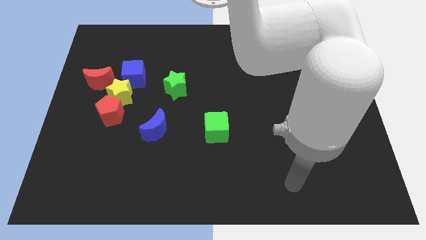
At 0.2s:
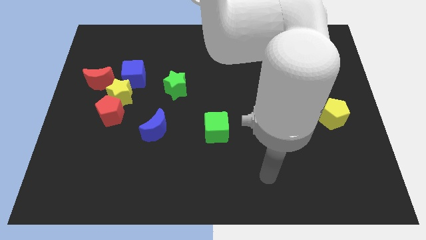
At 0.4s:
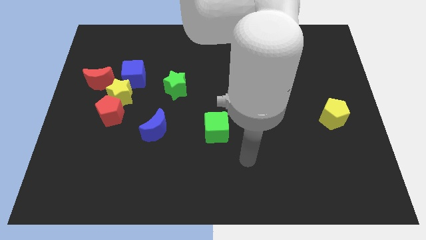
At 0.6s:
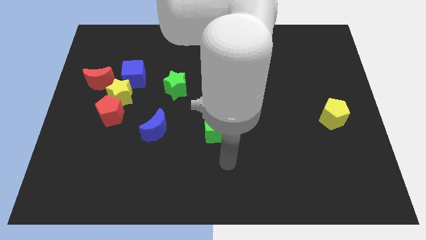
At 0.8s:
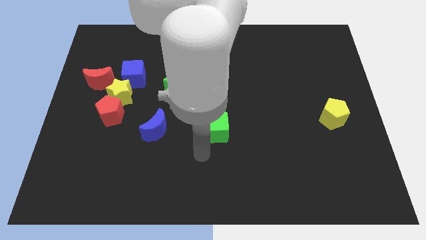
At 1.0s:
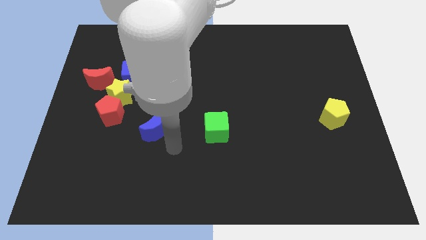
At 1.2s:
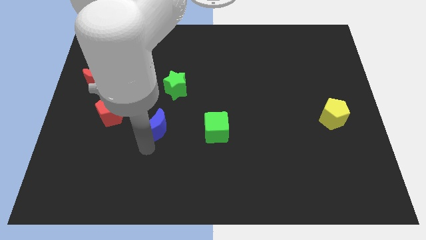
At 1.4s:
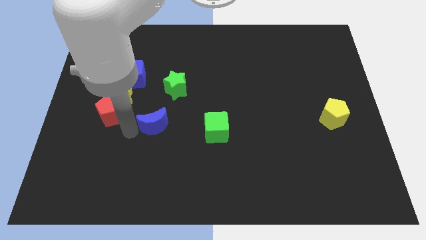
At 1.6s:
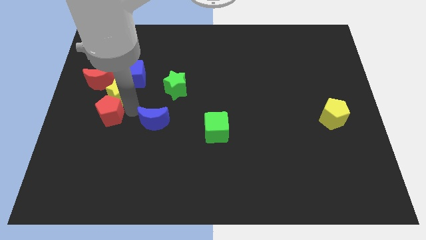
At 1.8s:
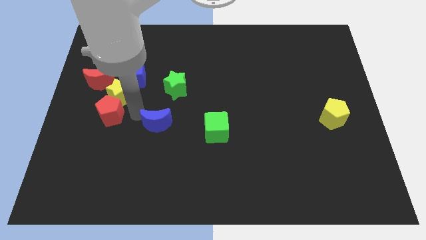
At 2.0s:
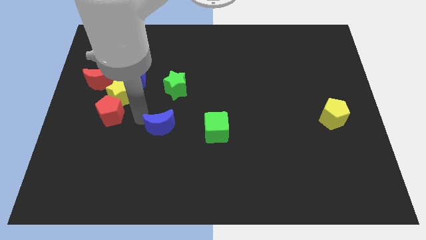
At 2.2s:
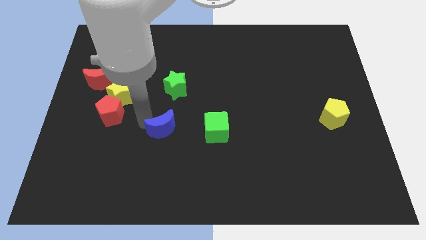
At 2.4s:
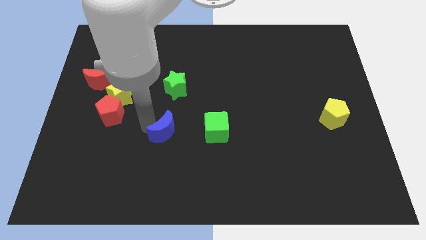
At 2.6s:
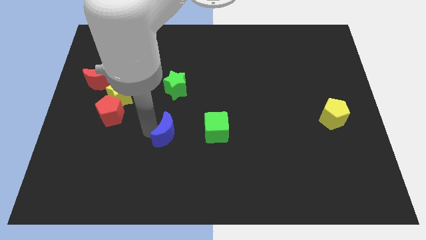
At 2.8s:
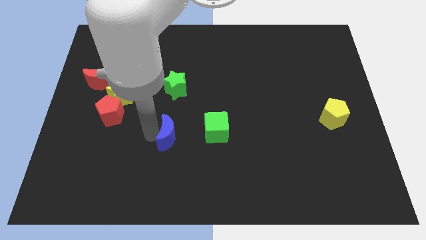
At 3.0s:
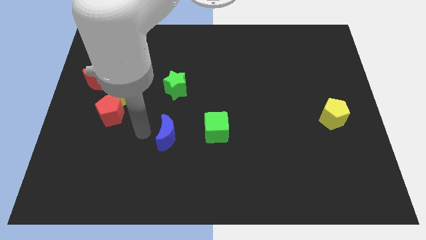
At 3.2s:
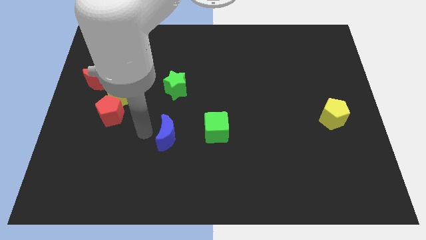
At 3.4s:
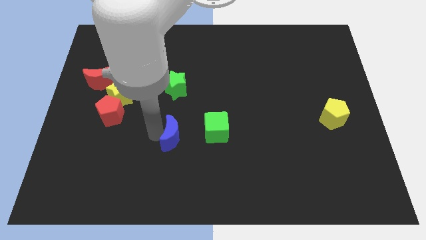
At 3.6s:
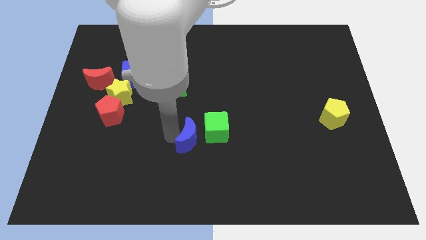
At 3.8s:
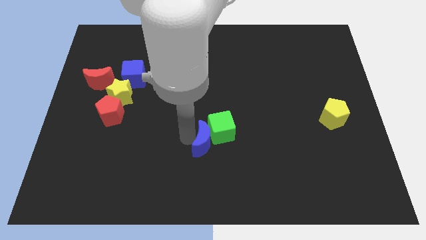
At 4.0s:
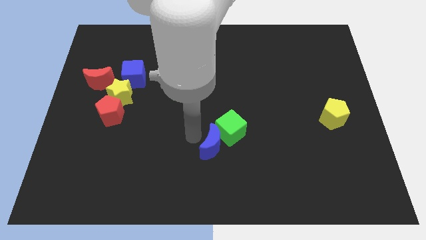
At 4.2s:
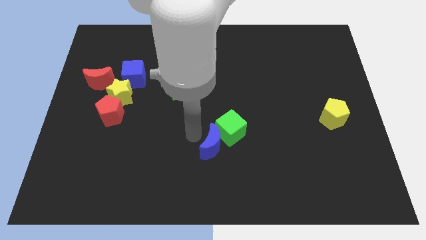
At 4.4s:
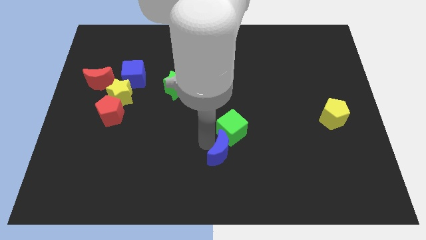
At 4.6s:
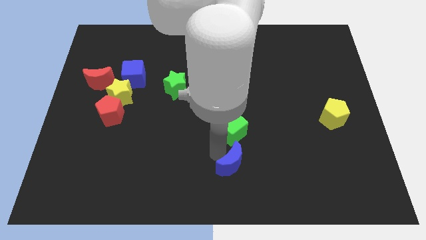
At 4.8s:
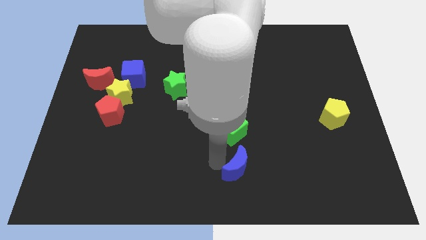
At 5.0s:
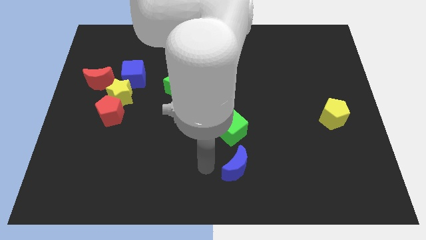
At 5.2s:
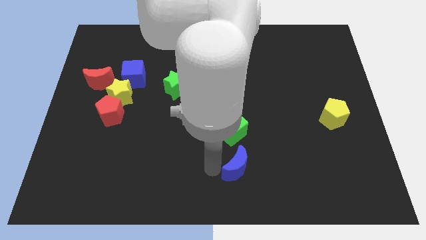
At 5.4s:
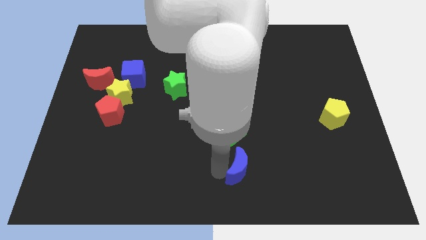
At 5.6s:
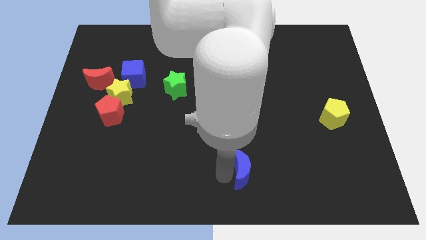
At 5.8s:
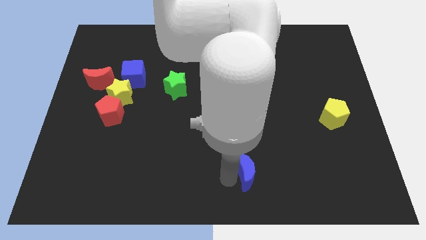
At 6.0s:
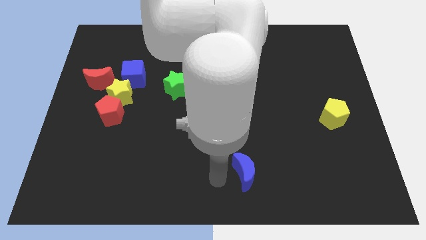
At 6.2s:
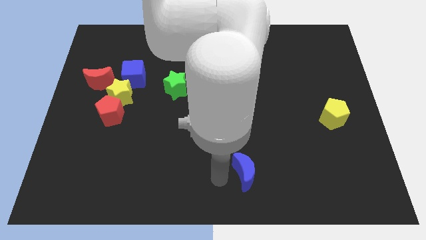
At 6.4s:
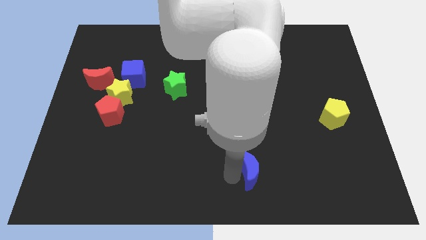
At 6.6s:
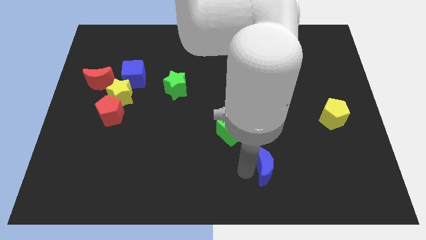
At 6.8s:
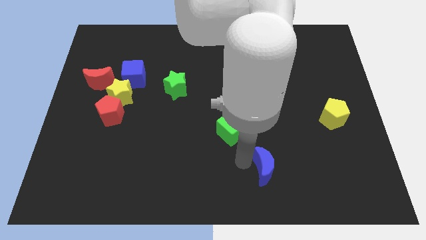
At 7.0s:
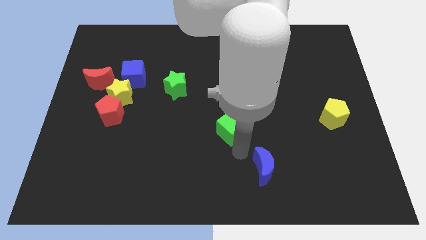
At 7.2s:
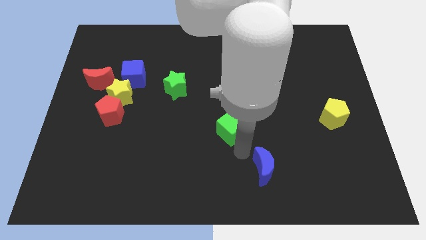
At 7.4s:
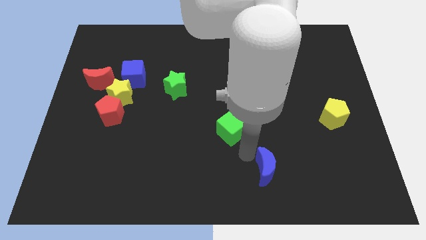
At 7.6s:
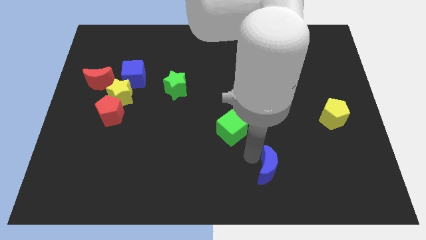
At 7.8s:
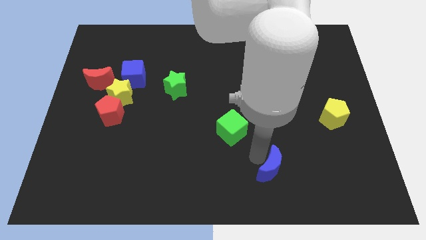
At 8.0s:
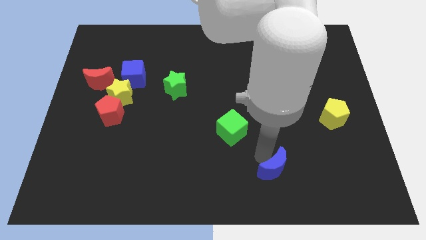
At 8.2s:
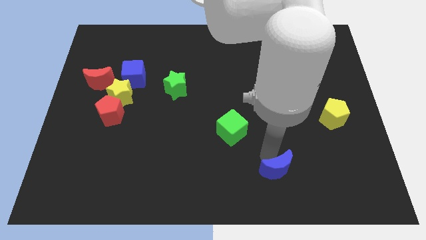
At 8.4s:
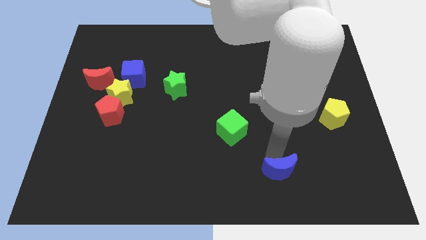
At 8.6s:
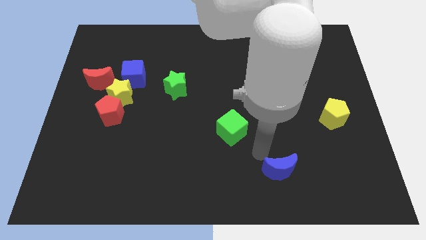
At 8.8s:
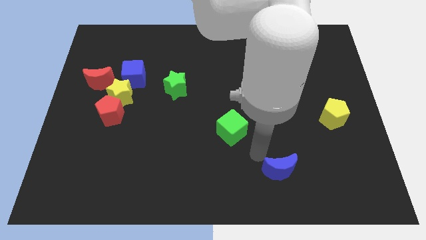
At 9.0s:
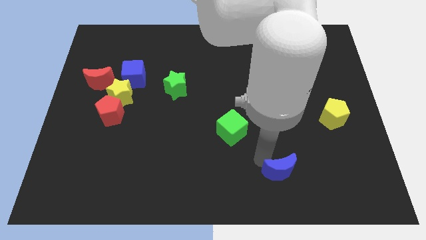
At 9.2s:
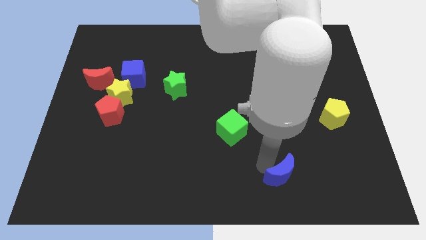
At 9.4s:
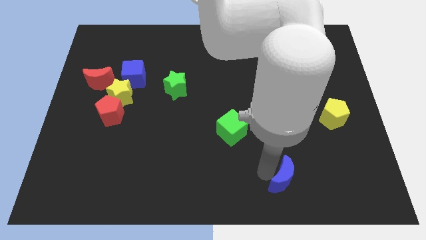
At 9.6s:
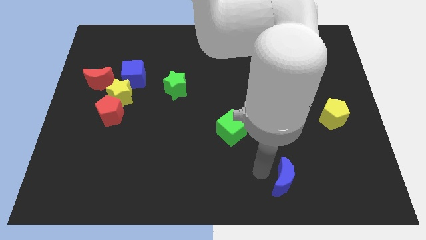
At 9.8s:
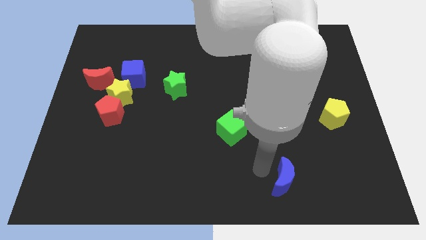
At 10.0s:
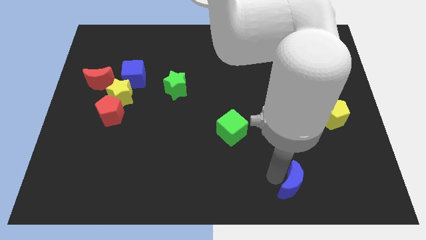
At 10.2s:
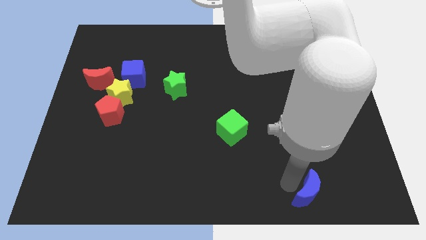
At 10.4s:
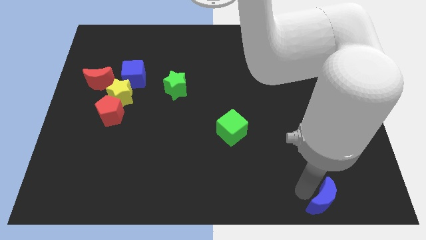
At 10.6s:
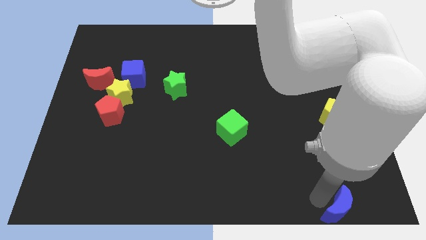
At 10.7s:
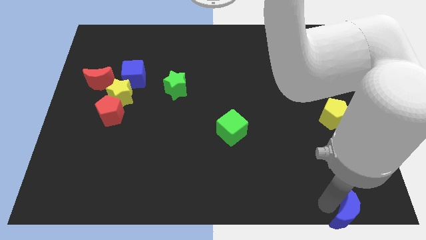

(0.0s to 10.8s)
push the blue moon to the bottom right of the board
